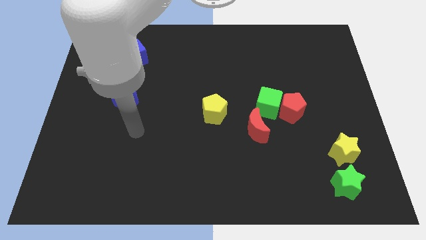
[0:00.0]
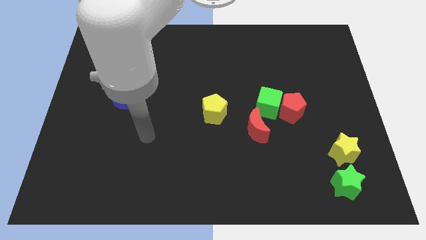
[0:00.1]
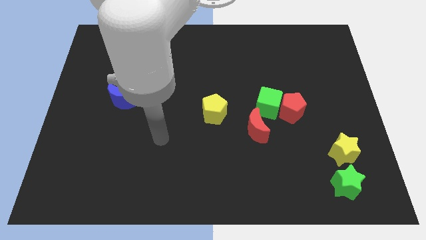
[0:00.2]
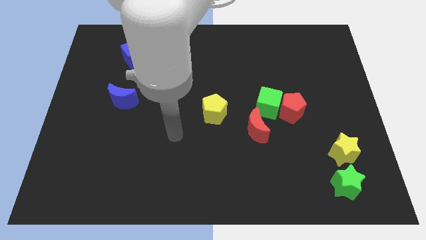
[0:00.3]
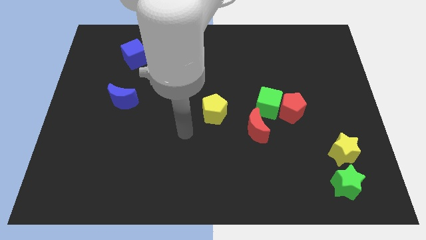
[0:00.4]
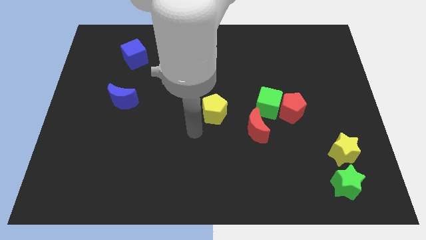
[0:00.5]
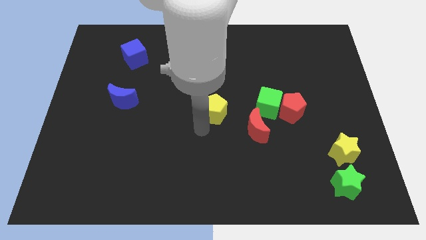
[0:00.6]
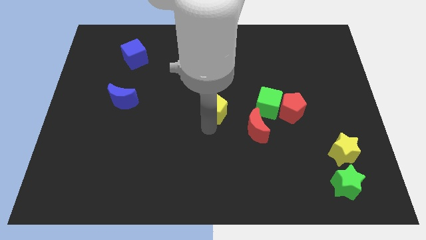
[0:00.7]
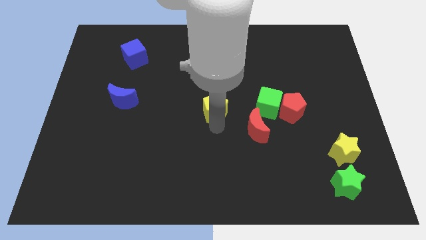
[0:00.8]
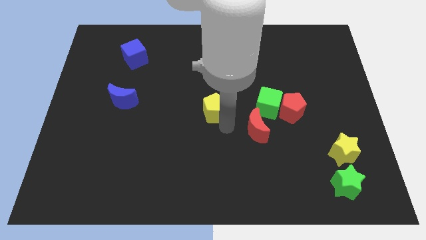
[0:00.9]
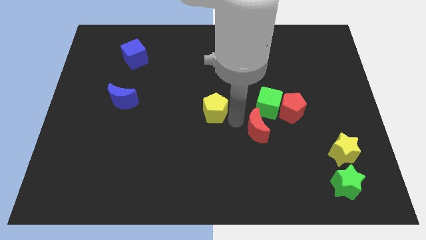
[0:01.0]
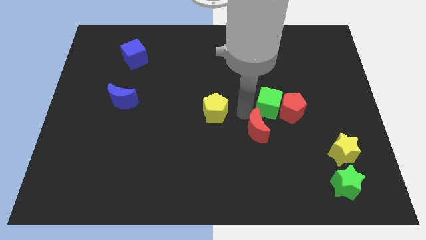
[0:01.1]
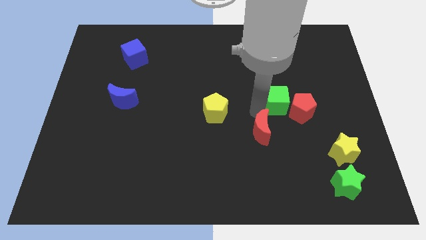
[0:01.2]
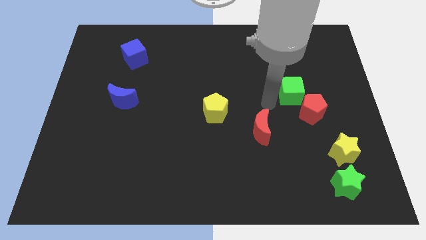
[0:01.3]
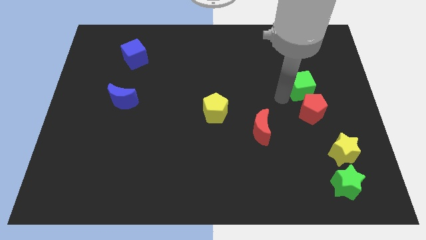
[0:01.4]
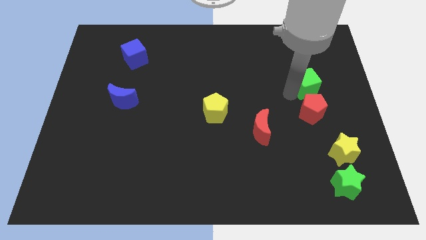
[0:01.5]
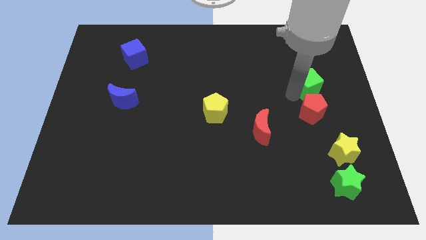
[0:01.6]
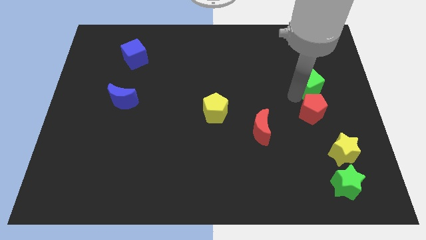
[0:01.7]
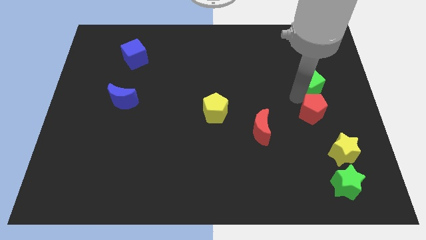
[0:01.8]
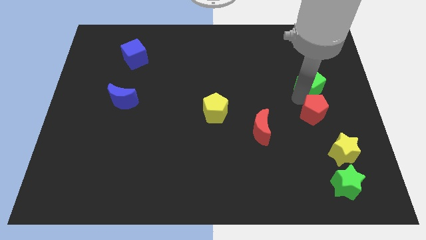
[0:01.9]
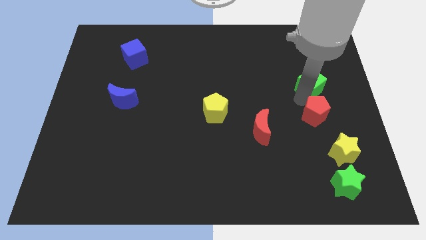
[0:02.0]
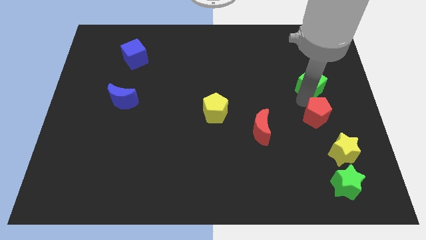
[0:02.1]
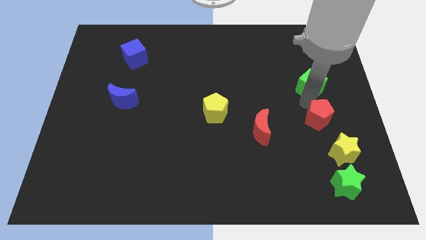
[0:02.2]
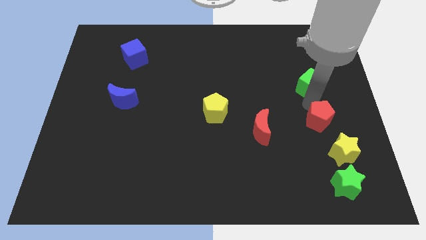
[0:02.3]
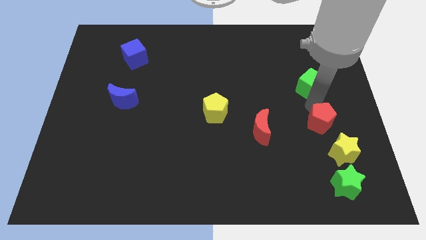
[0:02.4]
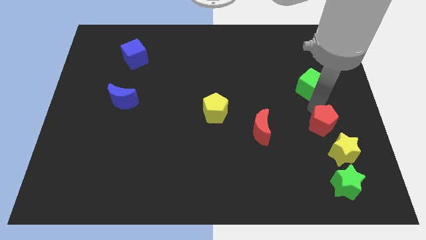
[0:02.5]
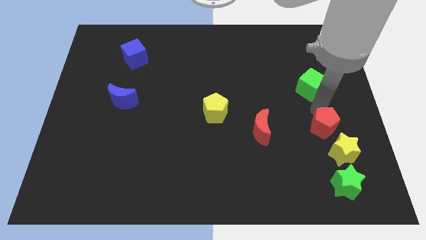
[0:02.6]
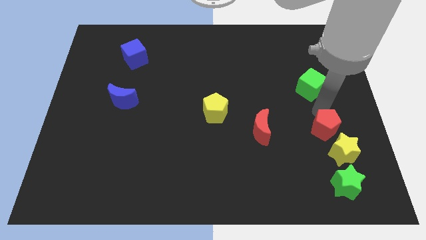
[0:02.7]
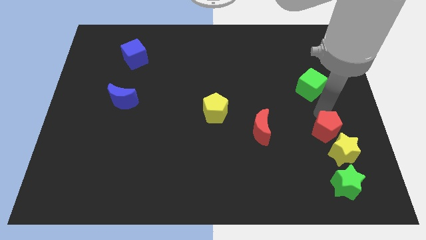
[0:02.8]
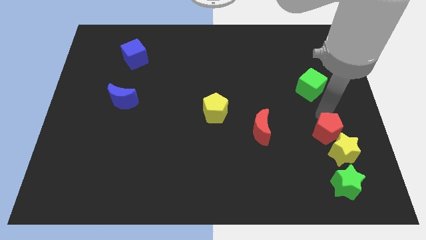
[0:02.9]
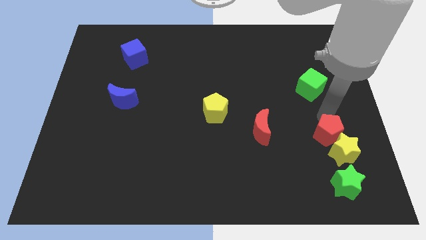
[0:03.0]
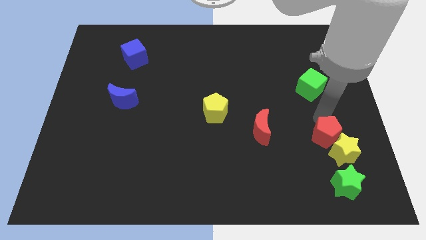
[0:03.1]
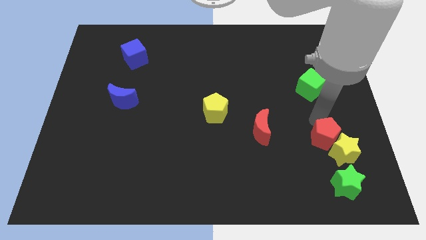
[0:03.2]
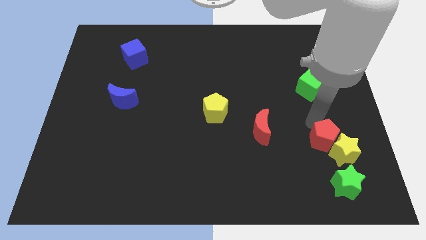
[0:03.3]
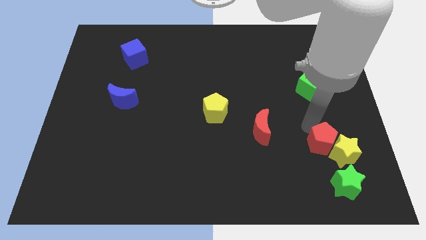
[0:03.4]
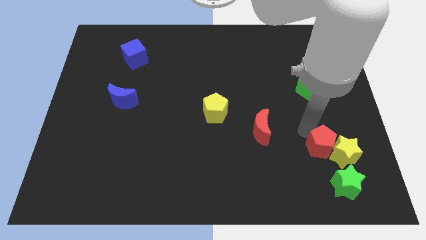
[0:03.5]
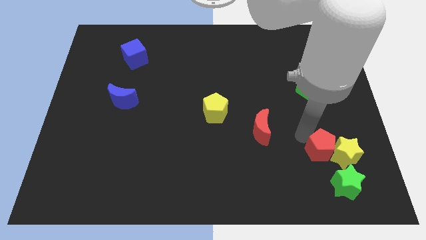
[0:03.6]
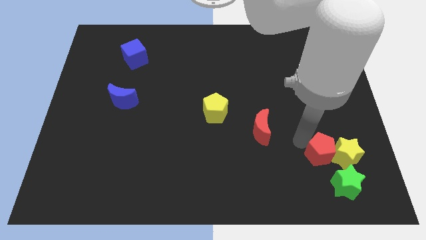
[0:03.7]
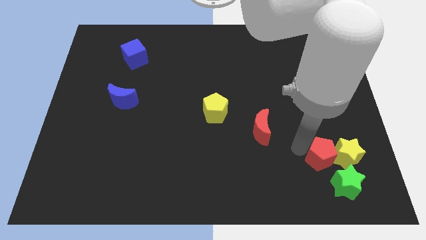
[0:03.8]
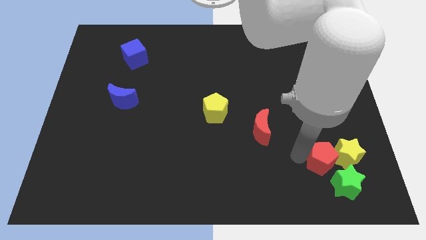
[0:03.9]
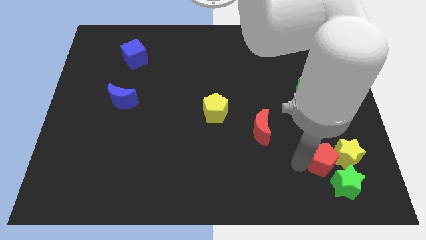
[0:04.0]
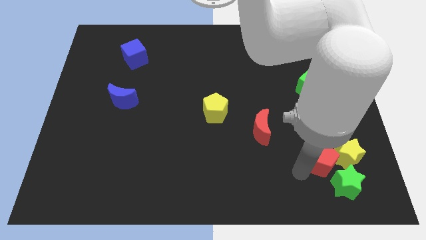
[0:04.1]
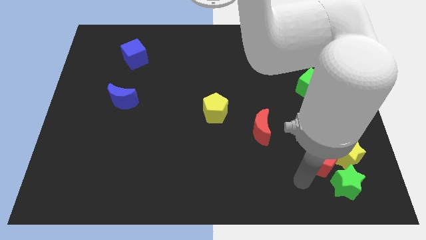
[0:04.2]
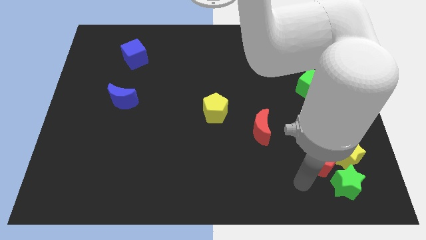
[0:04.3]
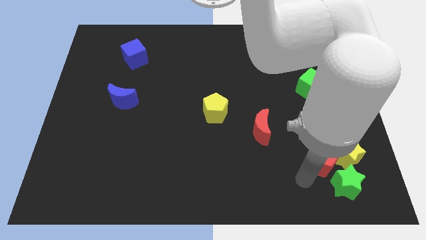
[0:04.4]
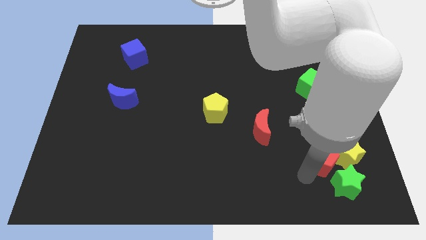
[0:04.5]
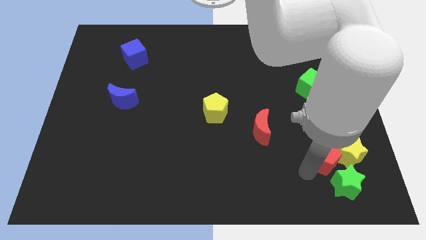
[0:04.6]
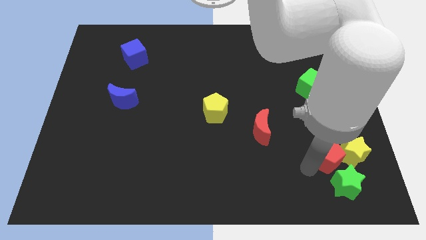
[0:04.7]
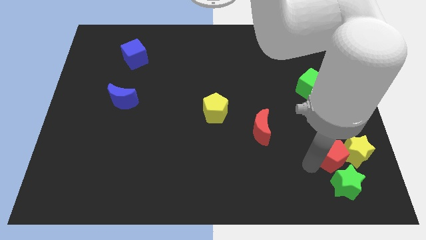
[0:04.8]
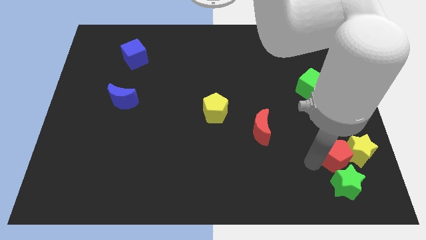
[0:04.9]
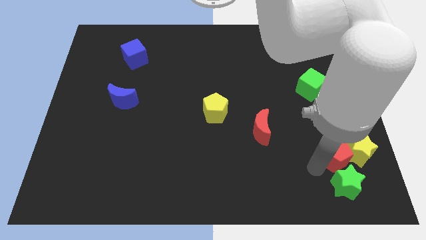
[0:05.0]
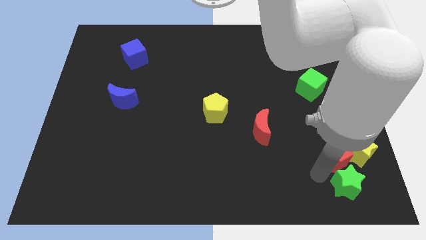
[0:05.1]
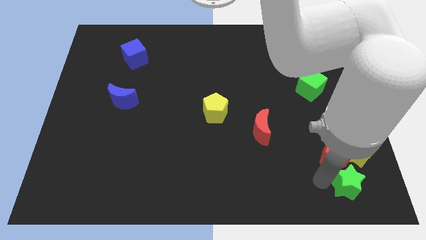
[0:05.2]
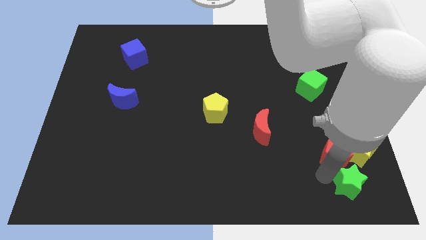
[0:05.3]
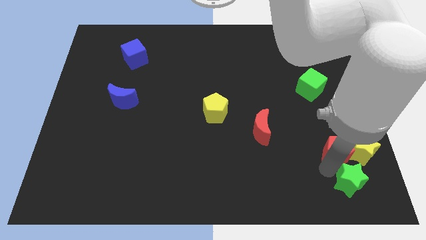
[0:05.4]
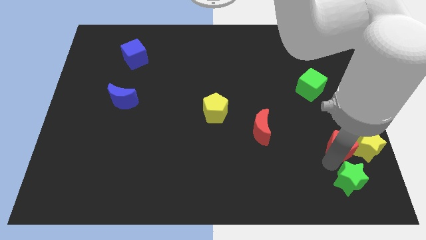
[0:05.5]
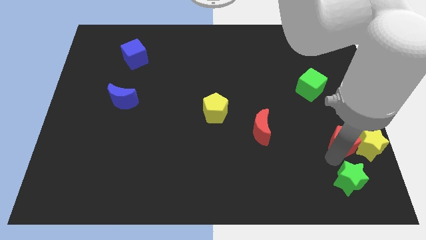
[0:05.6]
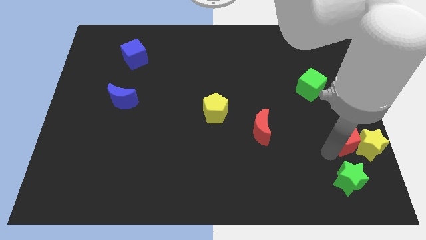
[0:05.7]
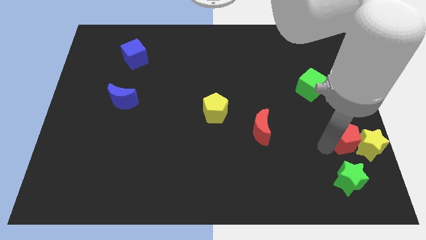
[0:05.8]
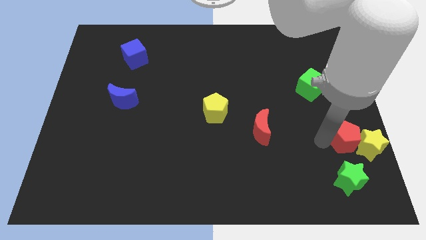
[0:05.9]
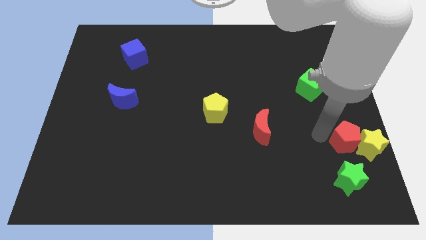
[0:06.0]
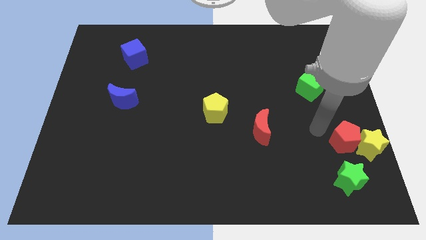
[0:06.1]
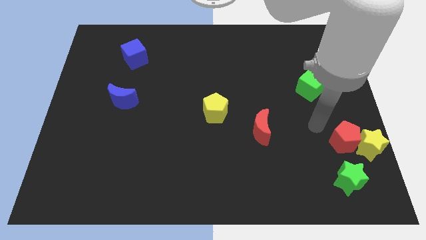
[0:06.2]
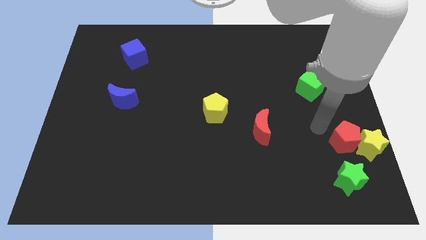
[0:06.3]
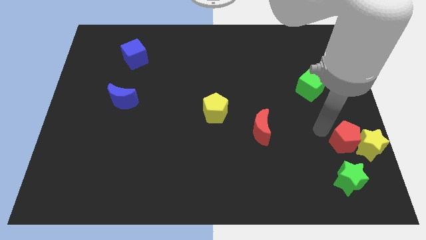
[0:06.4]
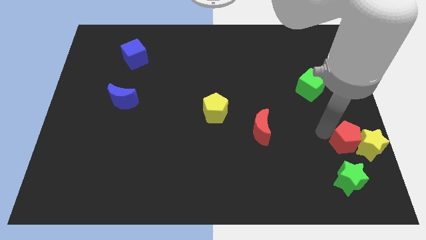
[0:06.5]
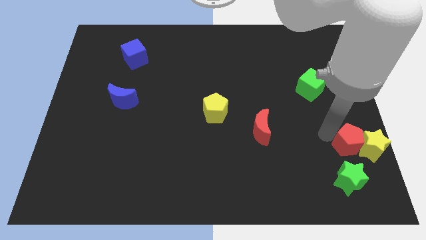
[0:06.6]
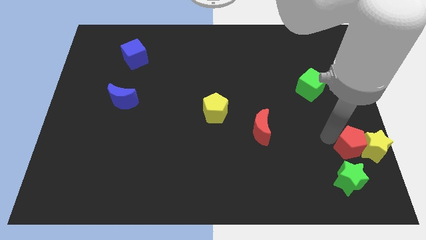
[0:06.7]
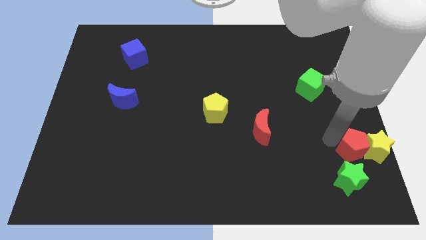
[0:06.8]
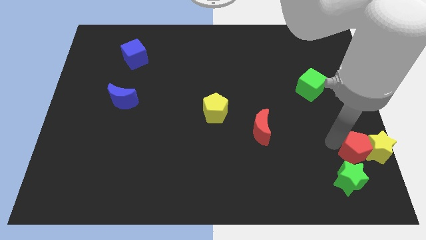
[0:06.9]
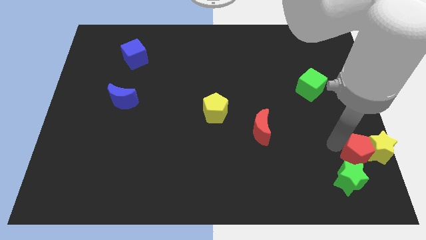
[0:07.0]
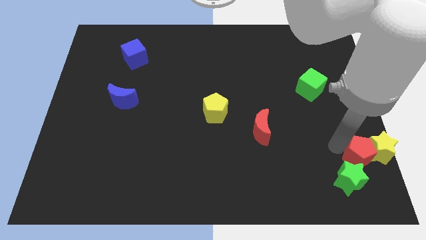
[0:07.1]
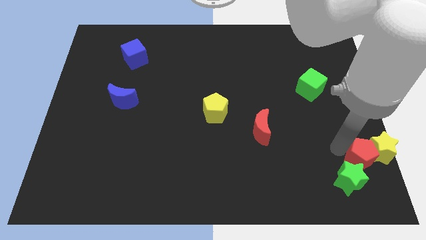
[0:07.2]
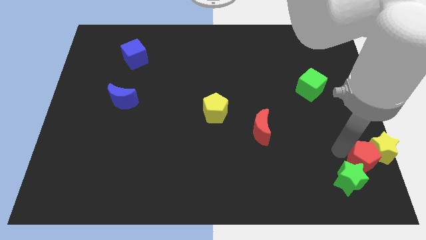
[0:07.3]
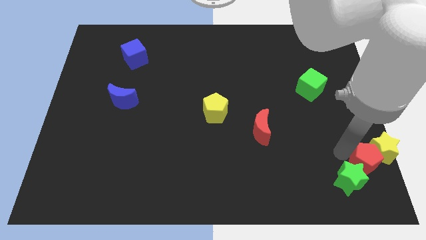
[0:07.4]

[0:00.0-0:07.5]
move the red pentagon to the bottom right corner

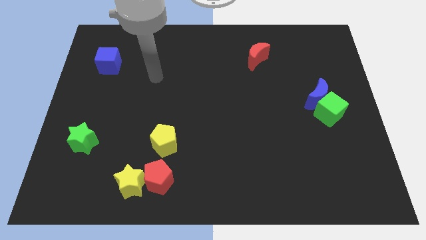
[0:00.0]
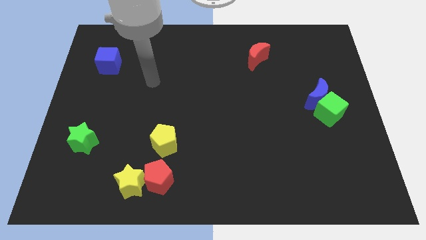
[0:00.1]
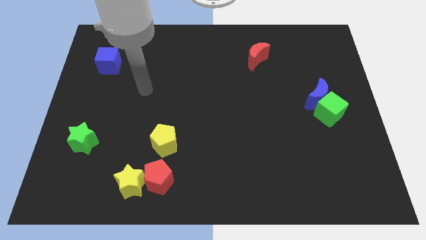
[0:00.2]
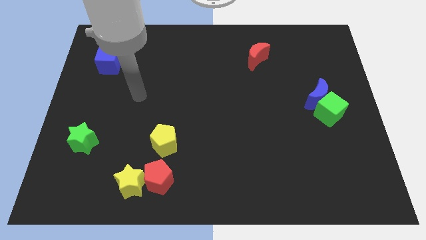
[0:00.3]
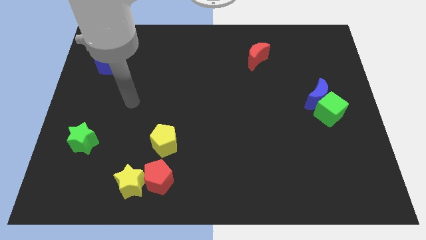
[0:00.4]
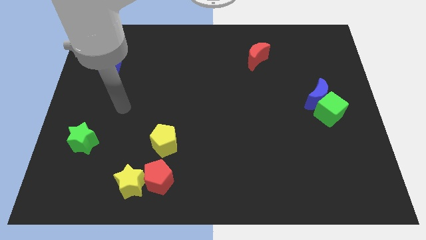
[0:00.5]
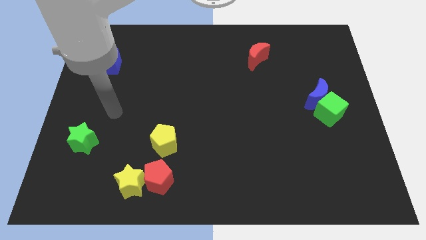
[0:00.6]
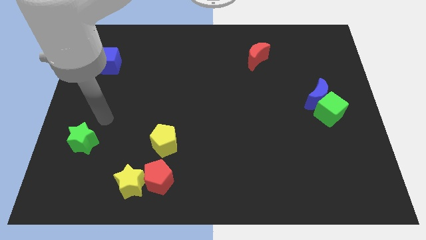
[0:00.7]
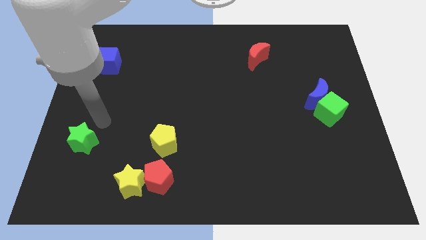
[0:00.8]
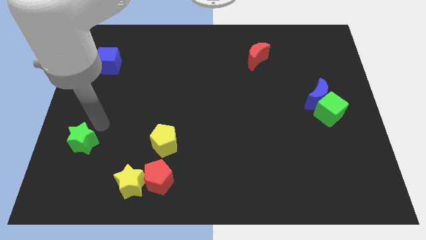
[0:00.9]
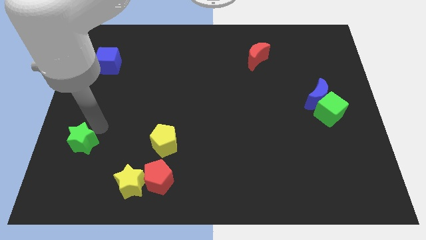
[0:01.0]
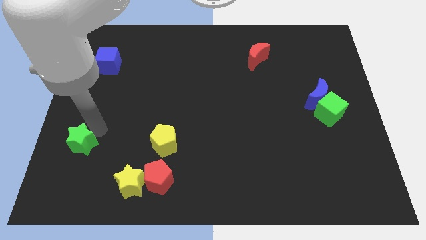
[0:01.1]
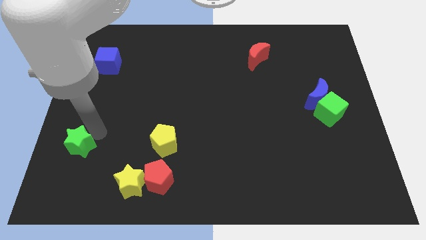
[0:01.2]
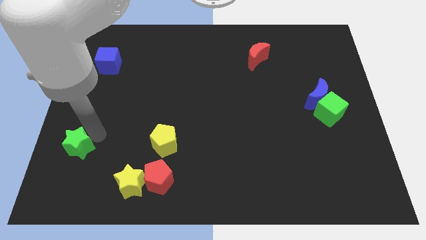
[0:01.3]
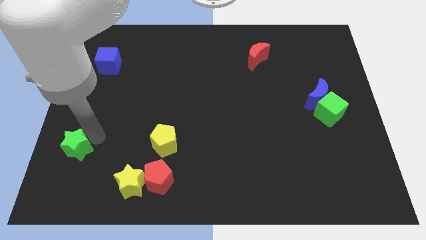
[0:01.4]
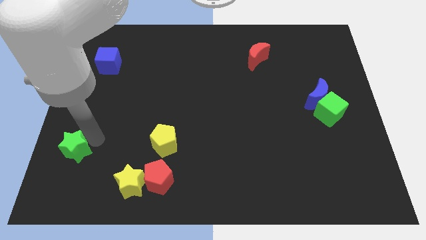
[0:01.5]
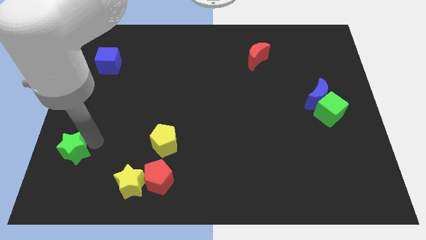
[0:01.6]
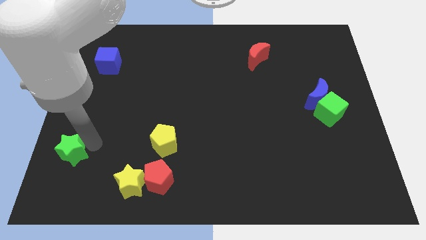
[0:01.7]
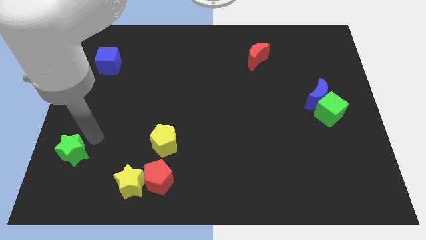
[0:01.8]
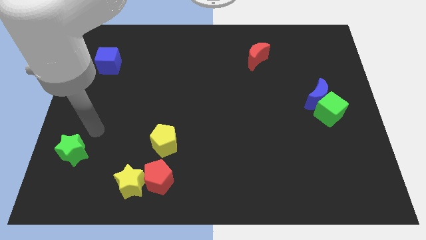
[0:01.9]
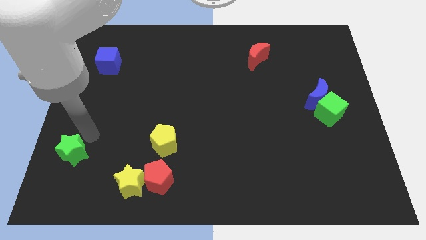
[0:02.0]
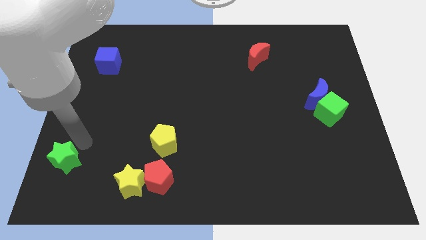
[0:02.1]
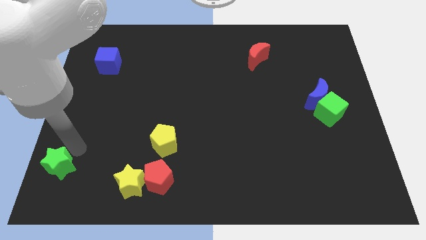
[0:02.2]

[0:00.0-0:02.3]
push the green star to the lower left corner
